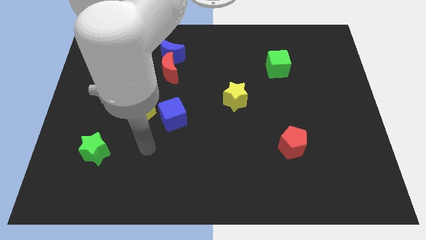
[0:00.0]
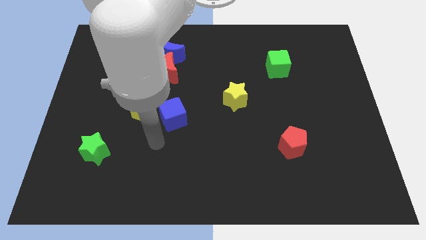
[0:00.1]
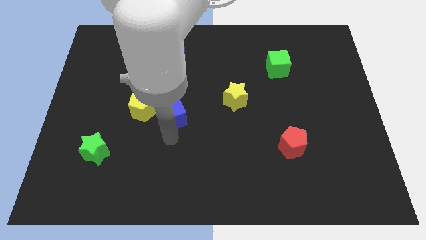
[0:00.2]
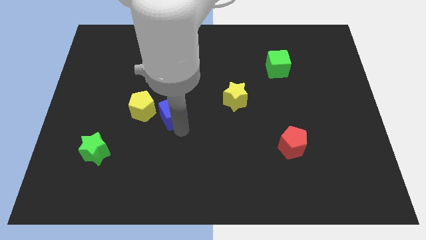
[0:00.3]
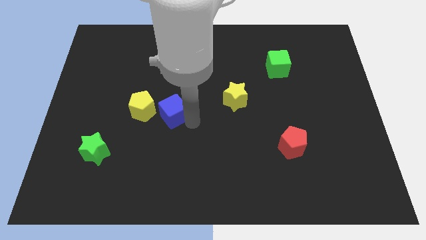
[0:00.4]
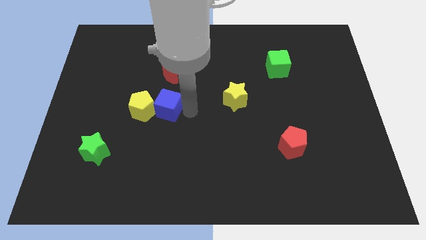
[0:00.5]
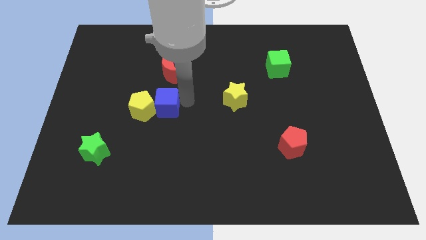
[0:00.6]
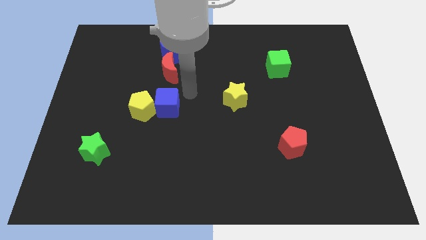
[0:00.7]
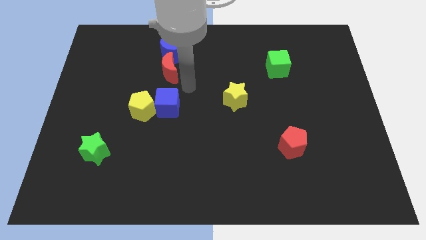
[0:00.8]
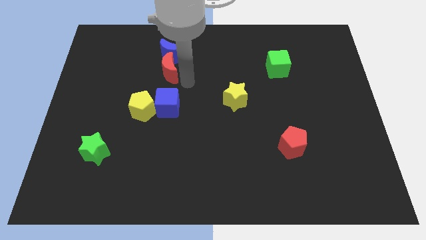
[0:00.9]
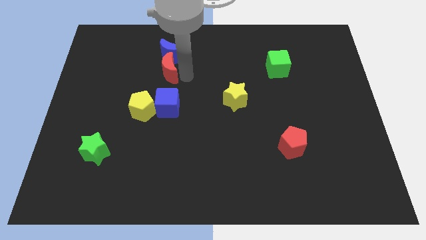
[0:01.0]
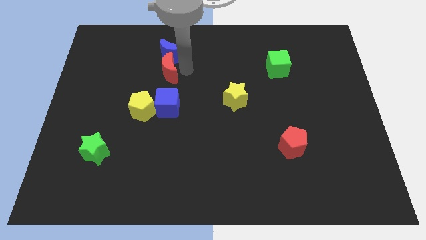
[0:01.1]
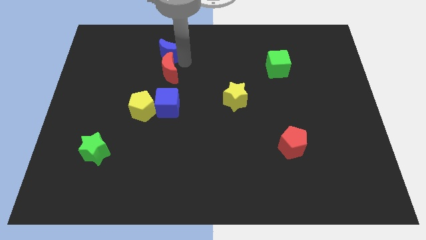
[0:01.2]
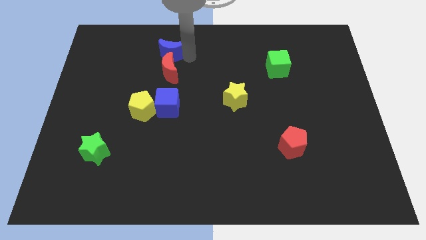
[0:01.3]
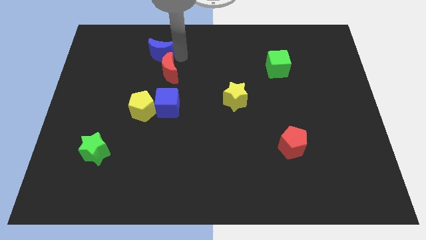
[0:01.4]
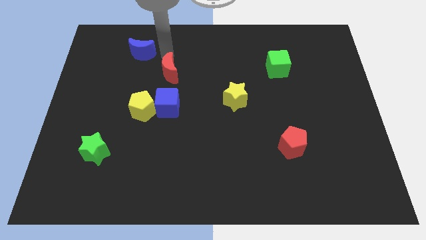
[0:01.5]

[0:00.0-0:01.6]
move the red moon away from the blue moon

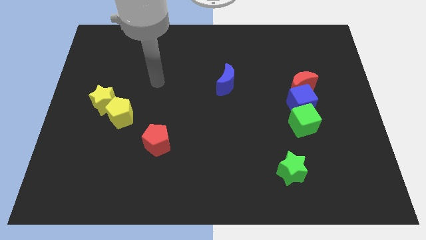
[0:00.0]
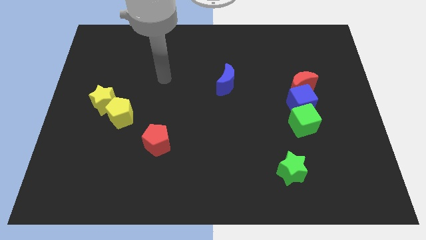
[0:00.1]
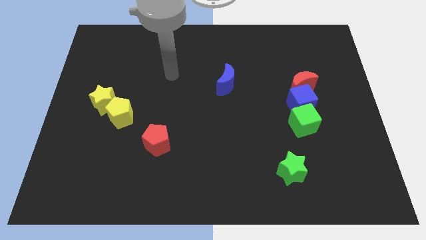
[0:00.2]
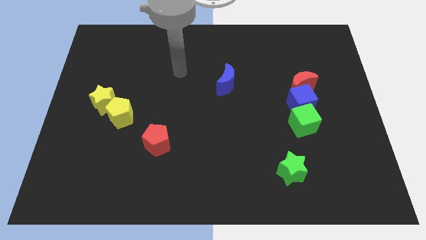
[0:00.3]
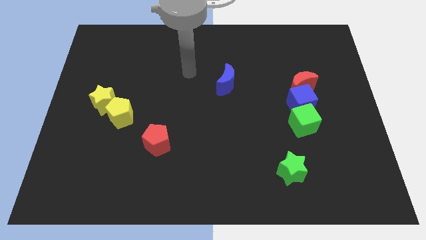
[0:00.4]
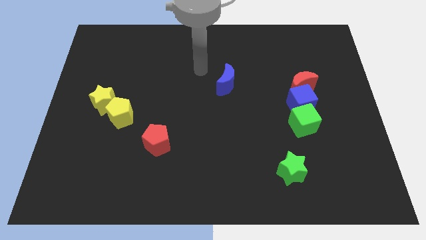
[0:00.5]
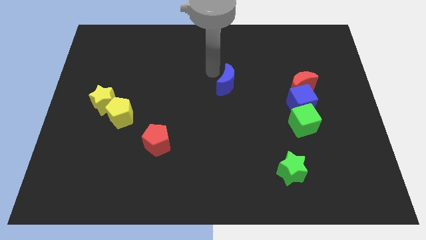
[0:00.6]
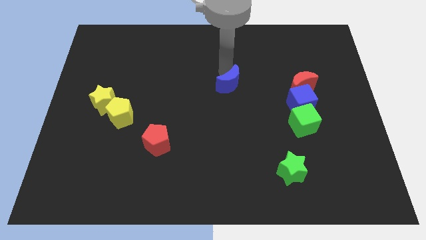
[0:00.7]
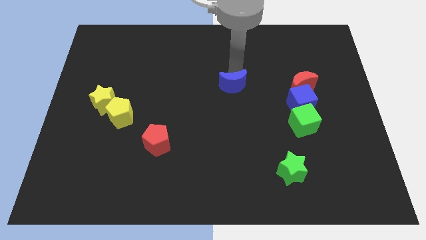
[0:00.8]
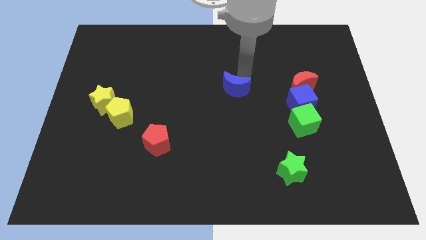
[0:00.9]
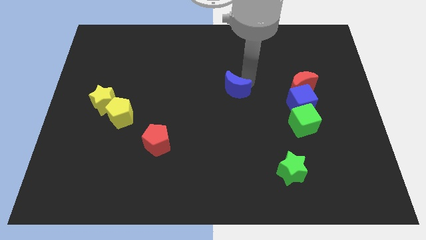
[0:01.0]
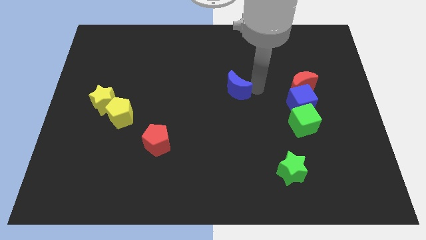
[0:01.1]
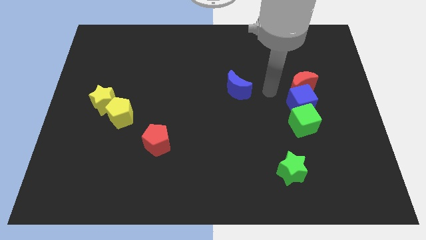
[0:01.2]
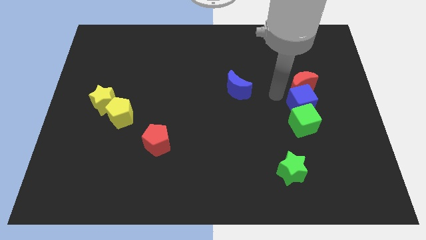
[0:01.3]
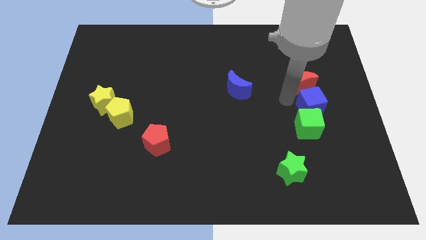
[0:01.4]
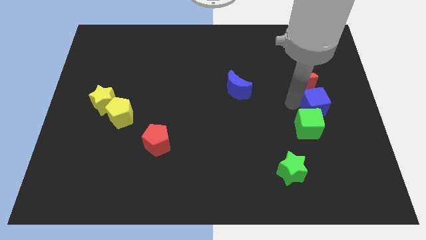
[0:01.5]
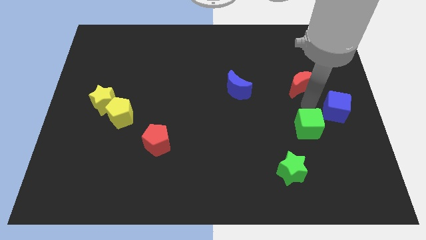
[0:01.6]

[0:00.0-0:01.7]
separate the red moon from the blue cube

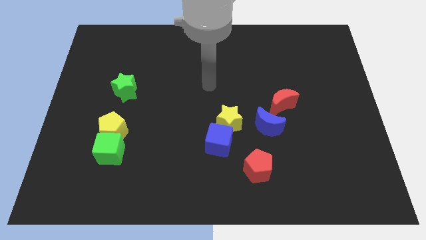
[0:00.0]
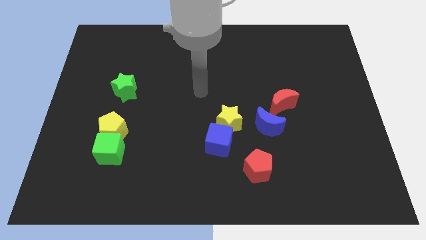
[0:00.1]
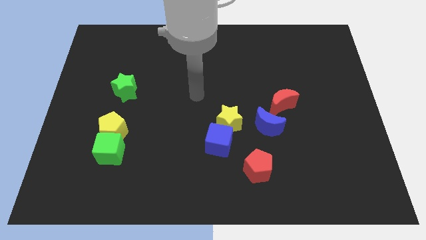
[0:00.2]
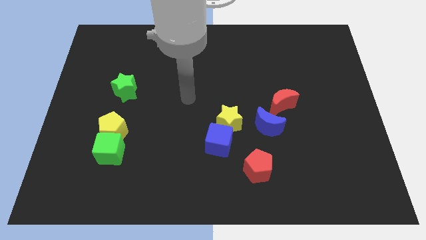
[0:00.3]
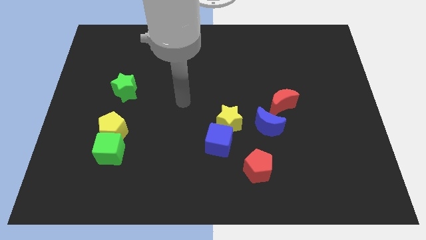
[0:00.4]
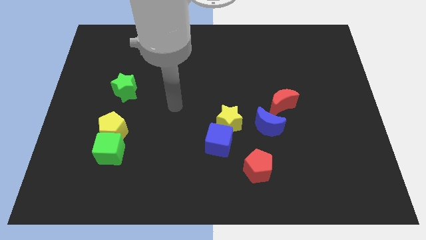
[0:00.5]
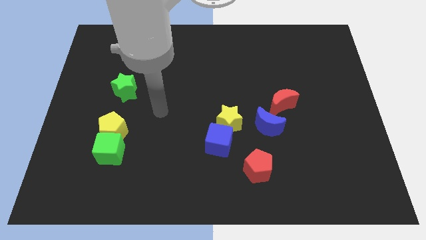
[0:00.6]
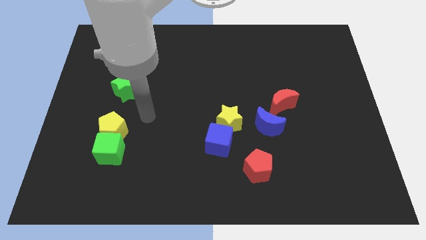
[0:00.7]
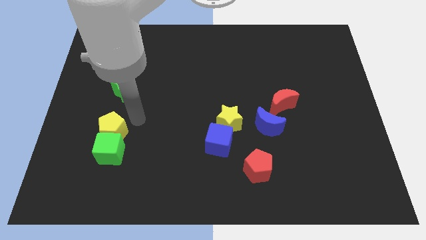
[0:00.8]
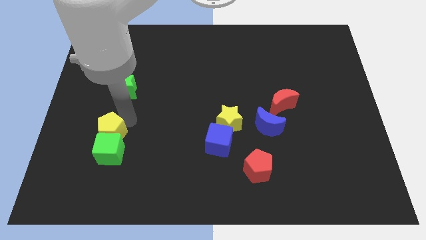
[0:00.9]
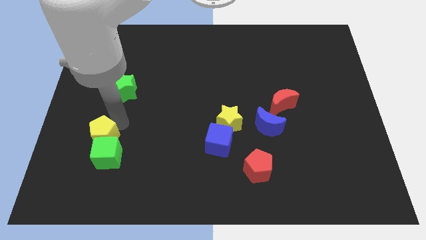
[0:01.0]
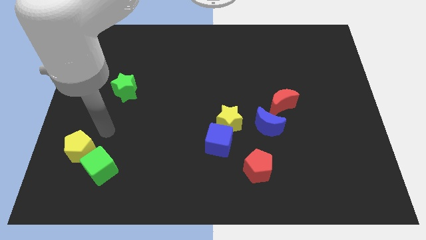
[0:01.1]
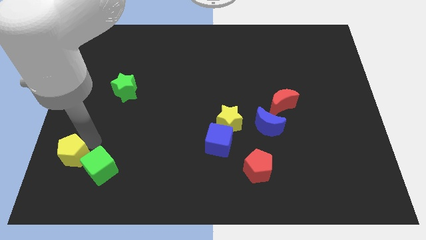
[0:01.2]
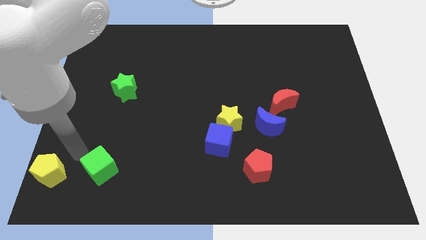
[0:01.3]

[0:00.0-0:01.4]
pull the green cube apart from the yellow pentagon

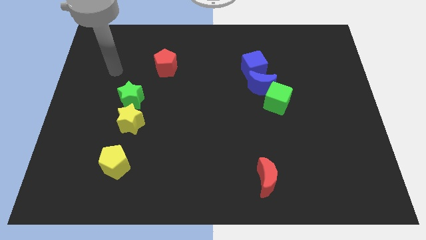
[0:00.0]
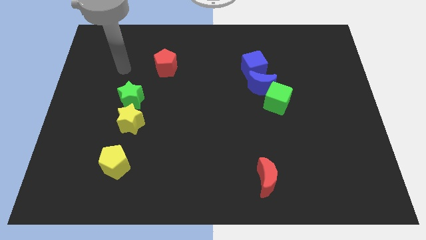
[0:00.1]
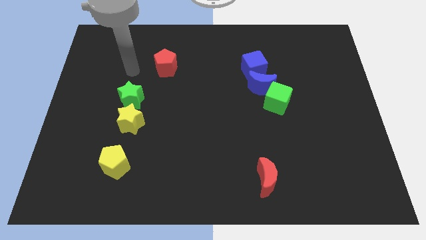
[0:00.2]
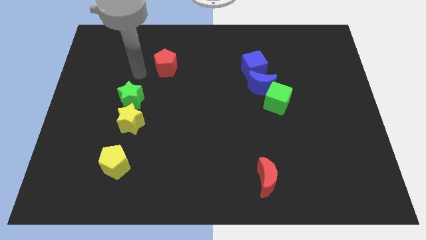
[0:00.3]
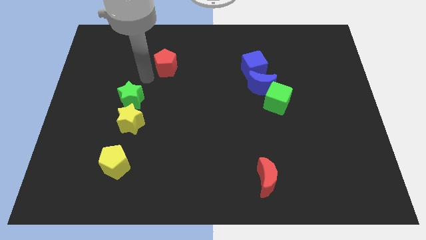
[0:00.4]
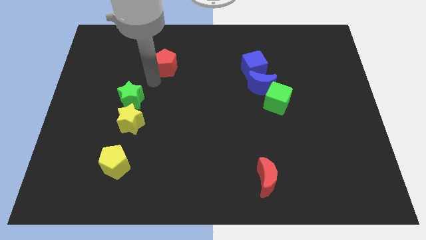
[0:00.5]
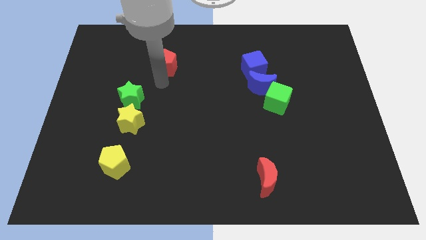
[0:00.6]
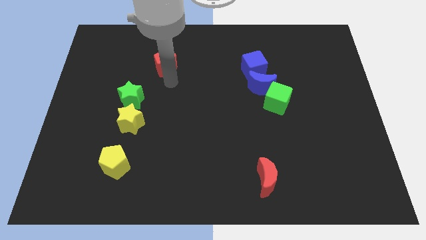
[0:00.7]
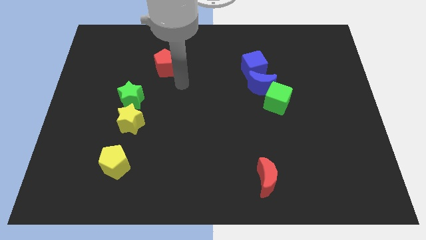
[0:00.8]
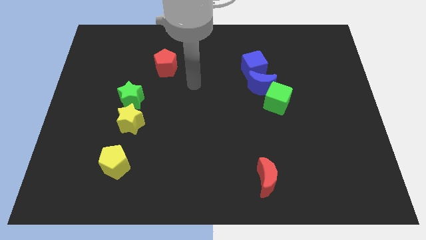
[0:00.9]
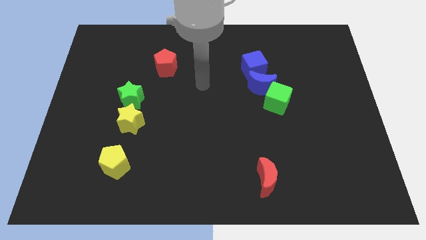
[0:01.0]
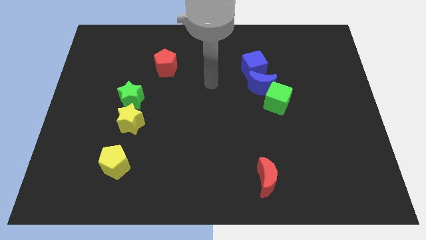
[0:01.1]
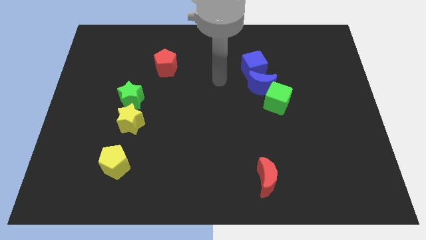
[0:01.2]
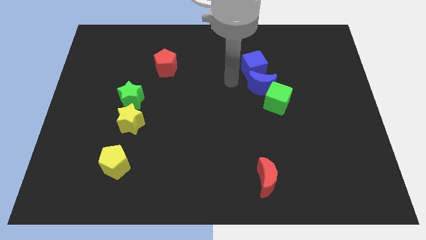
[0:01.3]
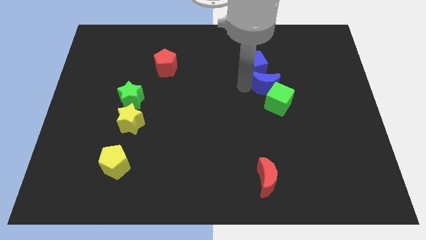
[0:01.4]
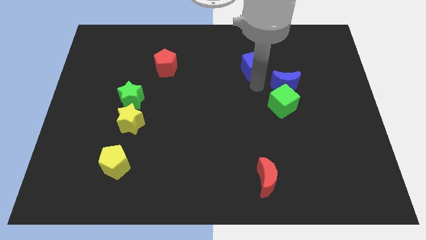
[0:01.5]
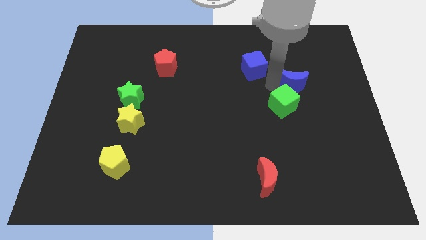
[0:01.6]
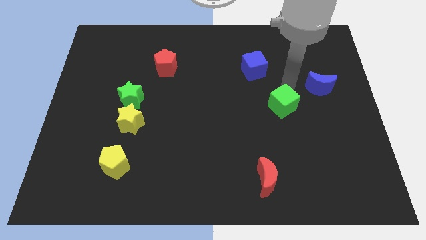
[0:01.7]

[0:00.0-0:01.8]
pull the green cube apart from the blue moon

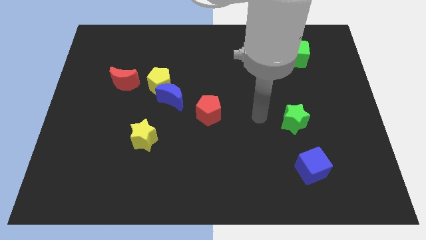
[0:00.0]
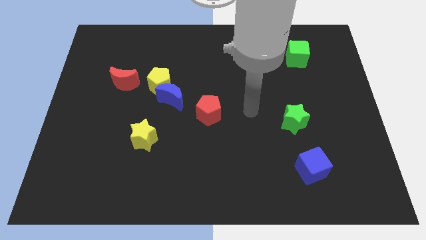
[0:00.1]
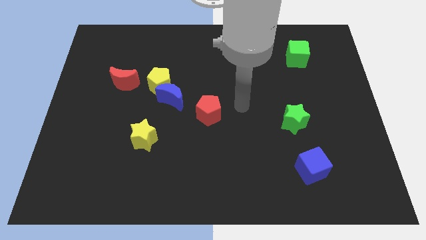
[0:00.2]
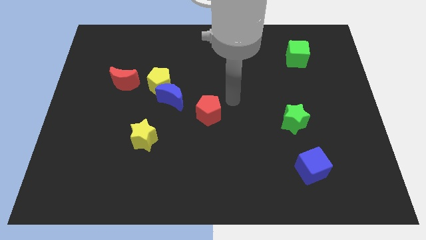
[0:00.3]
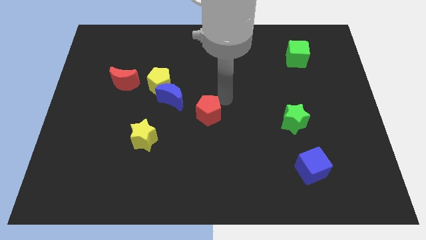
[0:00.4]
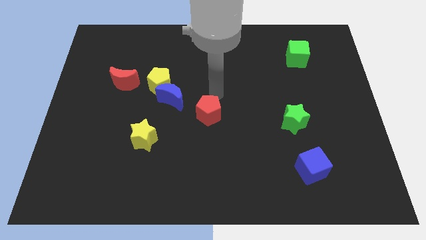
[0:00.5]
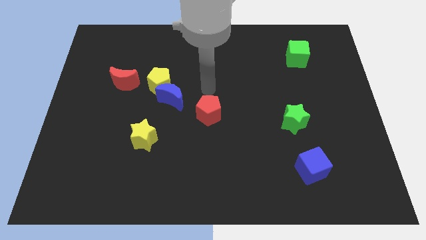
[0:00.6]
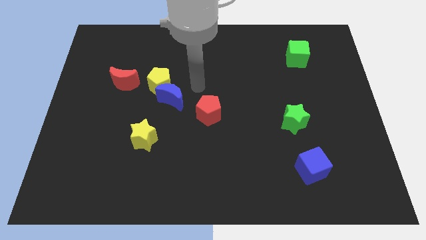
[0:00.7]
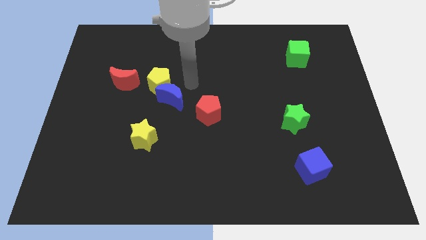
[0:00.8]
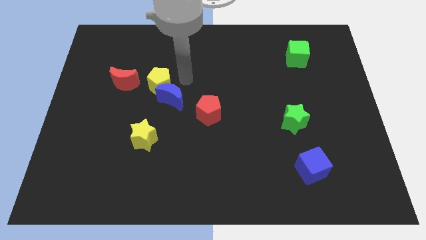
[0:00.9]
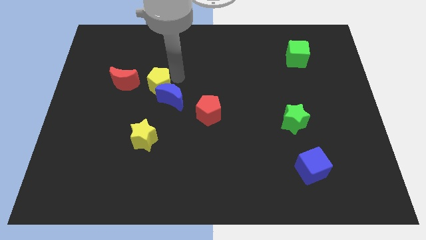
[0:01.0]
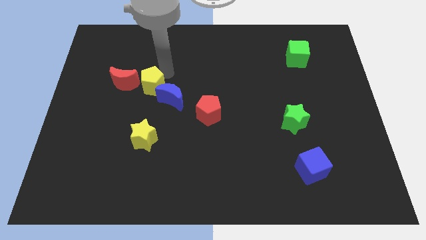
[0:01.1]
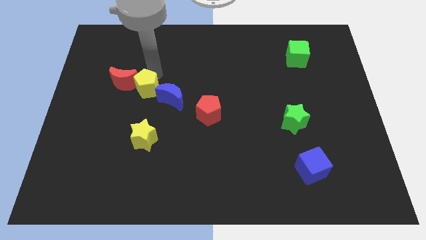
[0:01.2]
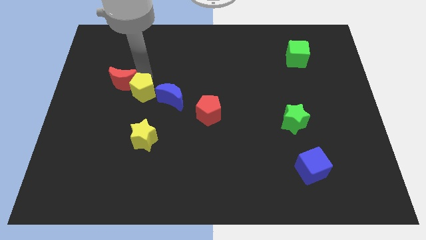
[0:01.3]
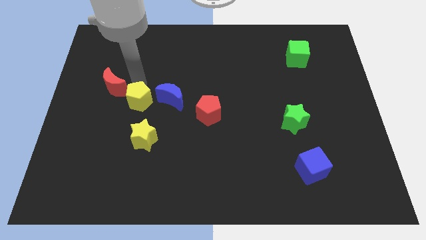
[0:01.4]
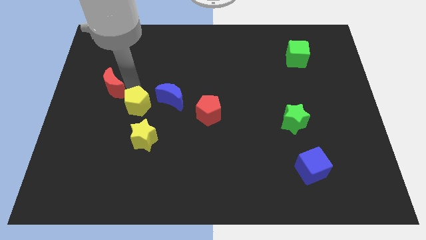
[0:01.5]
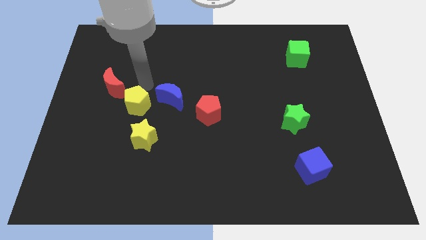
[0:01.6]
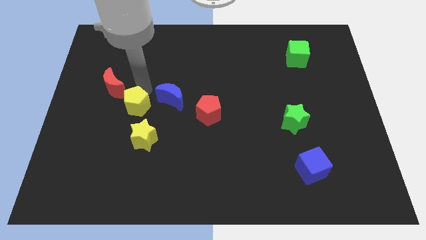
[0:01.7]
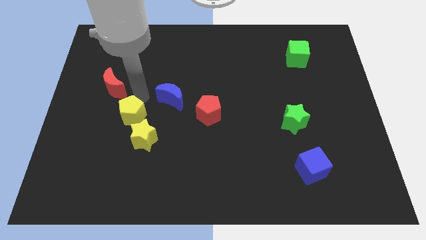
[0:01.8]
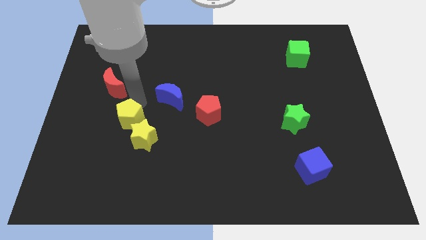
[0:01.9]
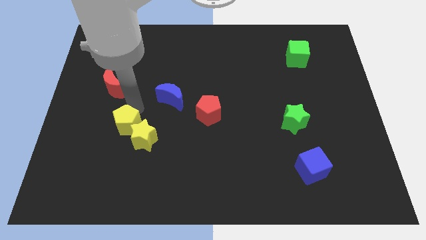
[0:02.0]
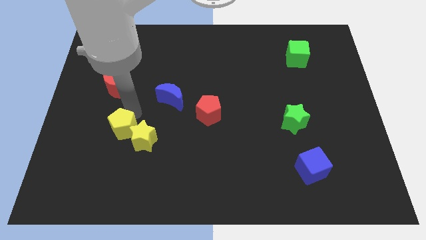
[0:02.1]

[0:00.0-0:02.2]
move the yellow pentagon away from the blue moon and red moon

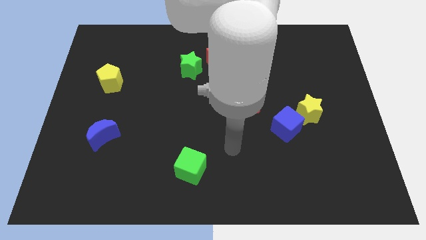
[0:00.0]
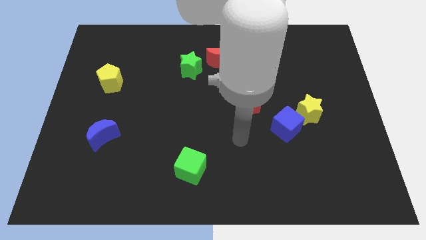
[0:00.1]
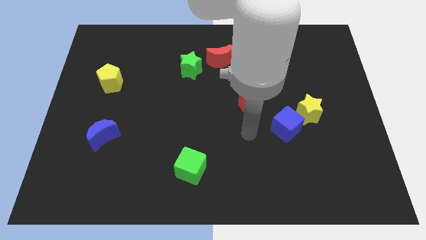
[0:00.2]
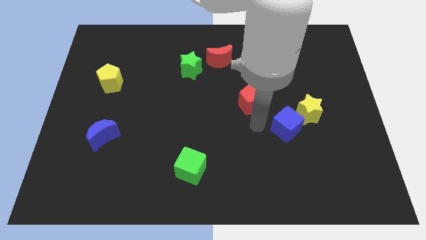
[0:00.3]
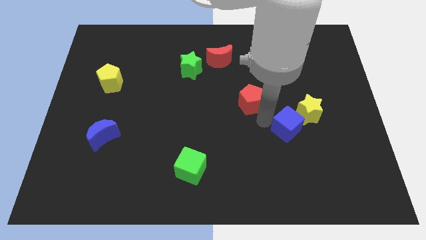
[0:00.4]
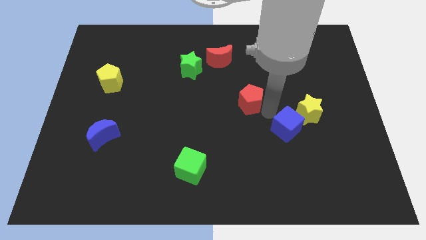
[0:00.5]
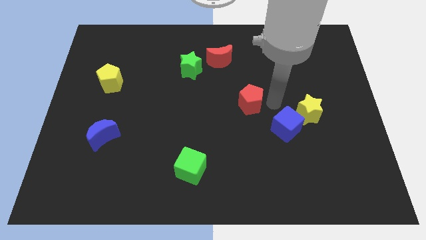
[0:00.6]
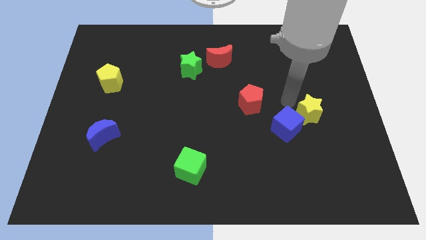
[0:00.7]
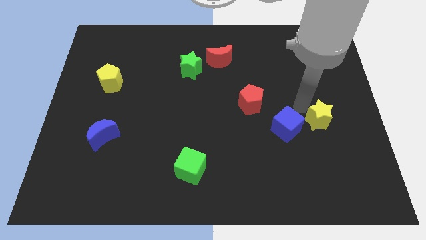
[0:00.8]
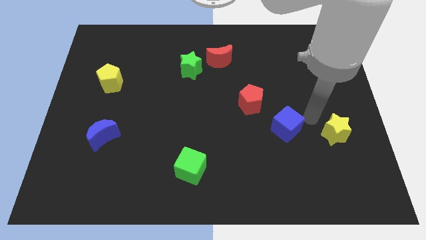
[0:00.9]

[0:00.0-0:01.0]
move the blue cube away from the yellow star
